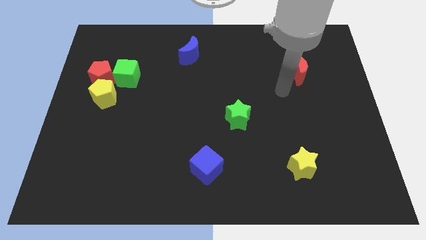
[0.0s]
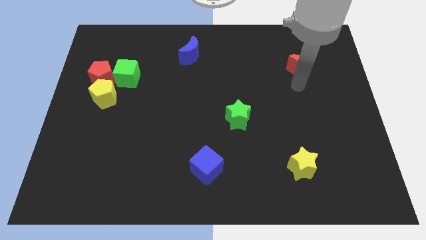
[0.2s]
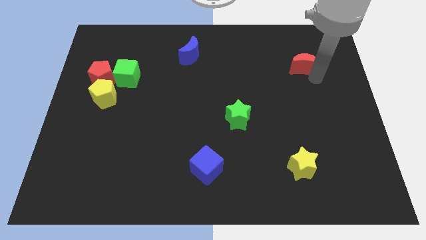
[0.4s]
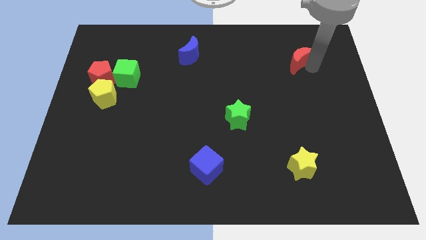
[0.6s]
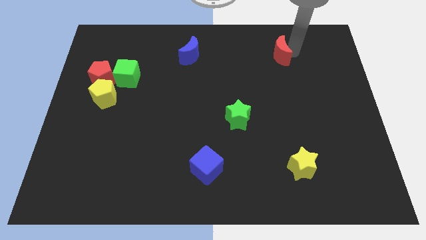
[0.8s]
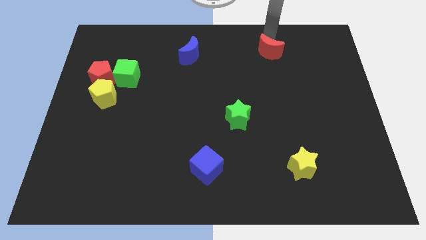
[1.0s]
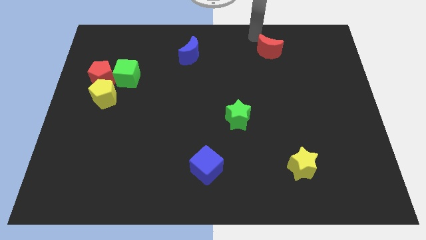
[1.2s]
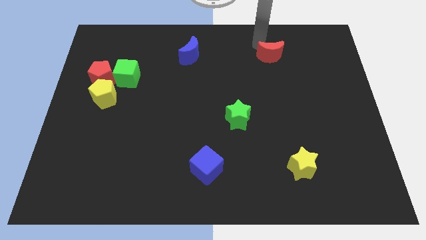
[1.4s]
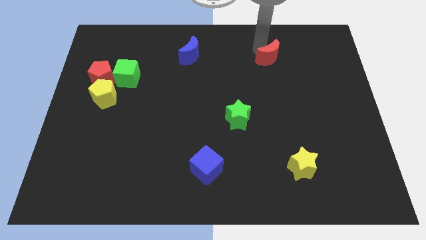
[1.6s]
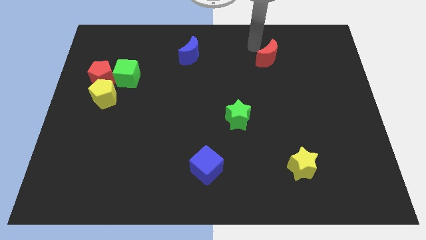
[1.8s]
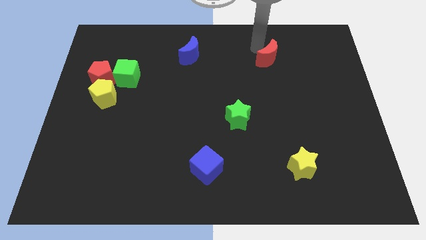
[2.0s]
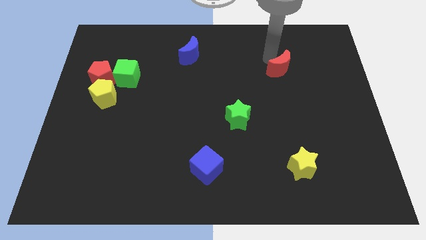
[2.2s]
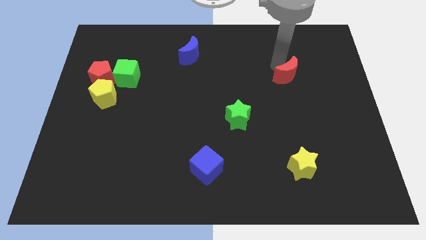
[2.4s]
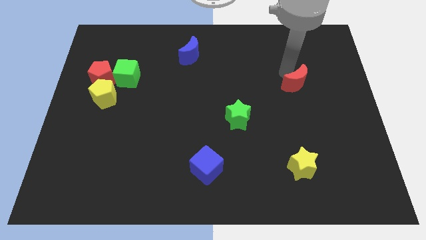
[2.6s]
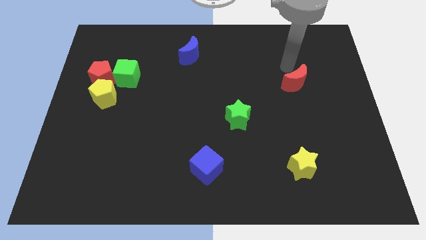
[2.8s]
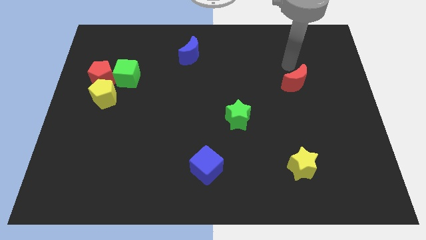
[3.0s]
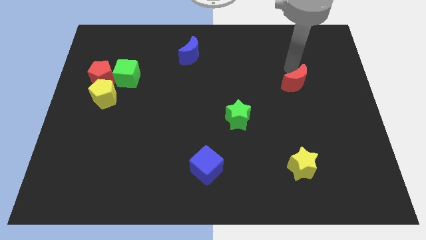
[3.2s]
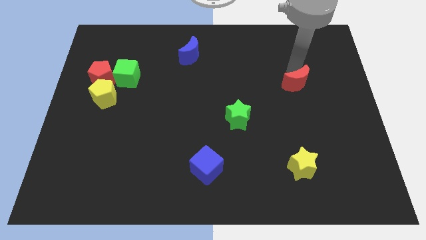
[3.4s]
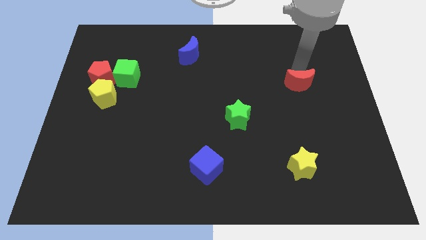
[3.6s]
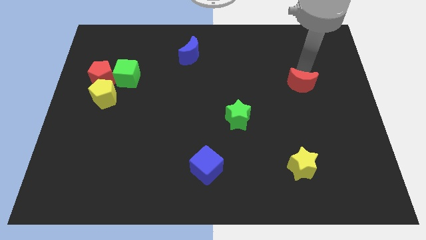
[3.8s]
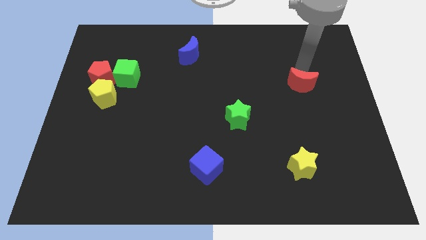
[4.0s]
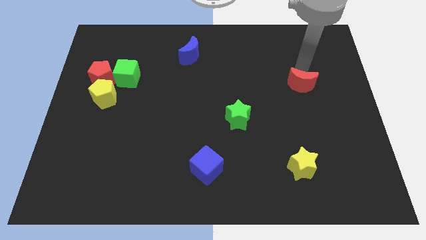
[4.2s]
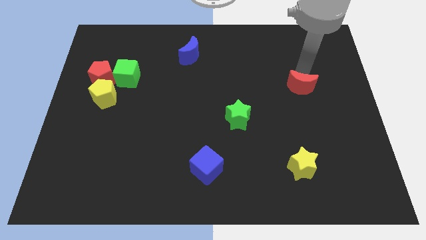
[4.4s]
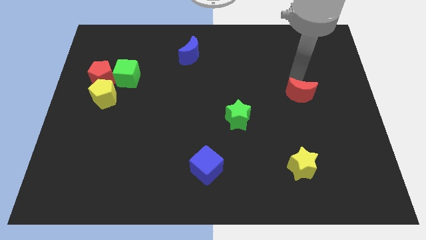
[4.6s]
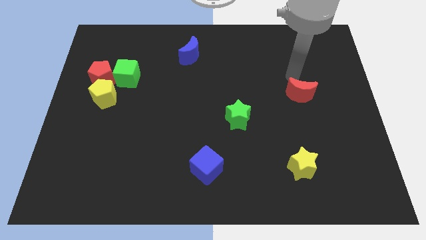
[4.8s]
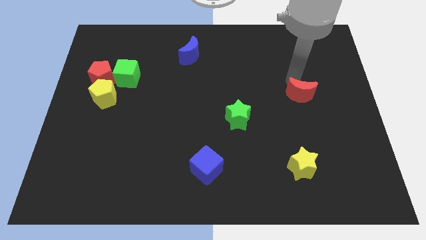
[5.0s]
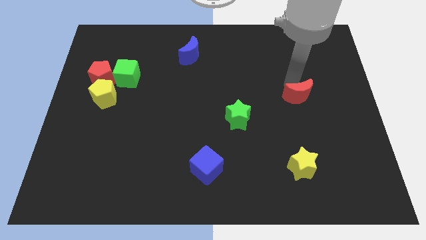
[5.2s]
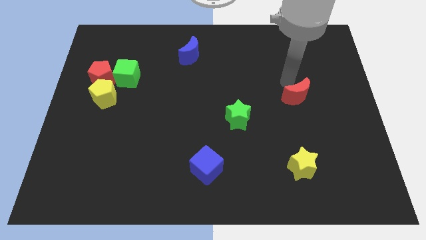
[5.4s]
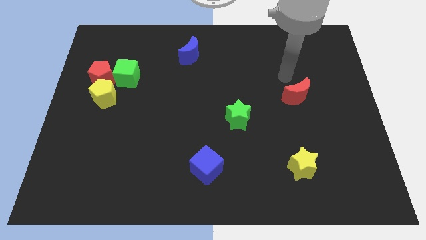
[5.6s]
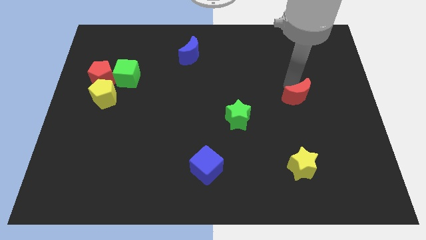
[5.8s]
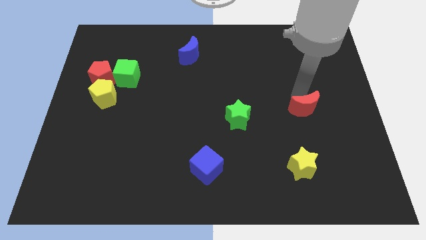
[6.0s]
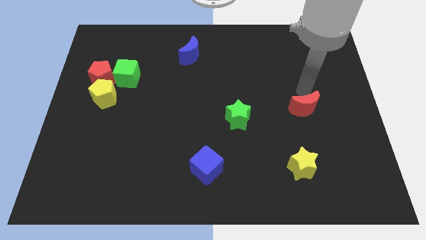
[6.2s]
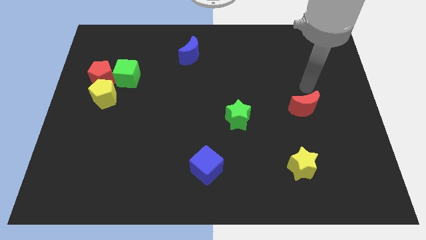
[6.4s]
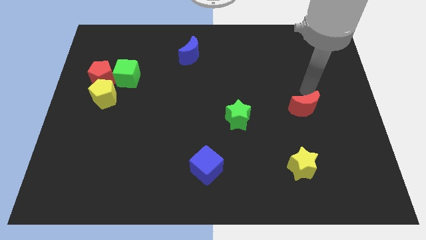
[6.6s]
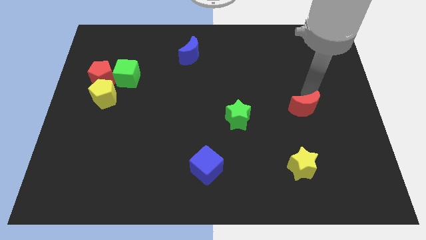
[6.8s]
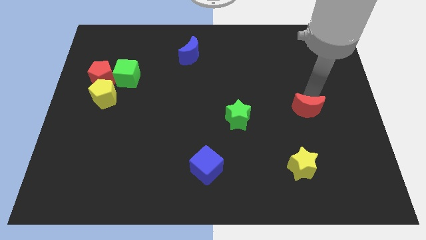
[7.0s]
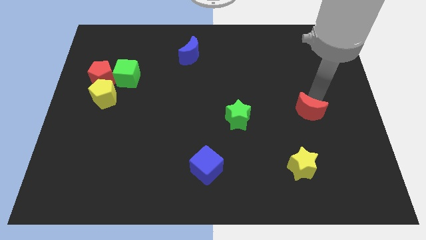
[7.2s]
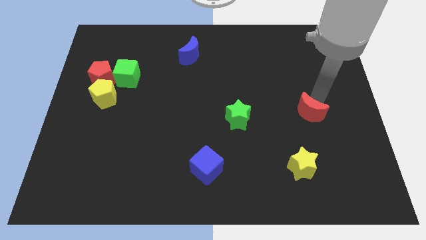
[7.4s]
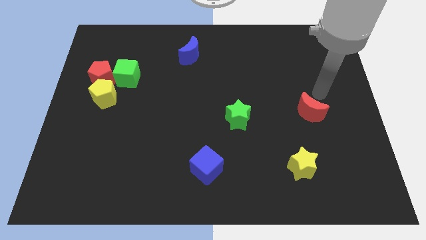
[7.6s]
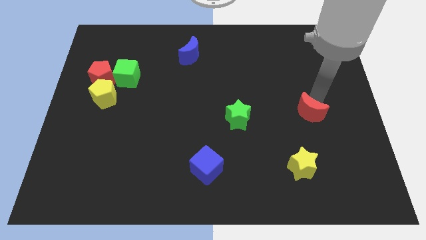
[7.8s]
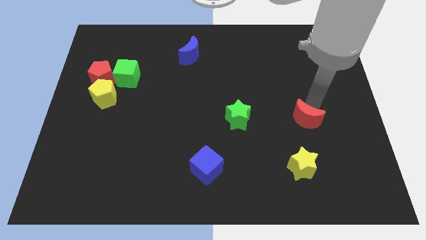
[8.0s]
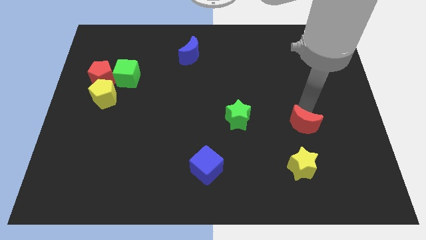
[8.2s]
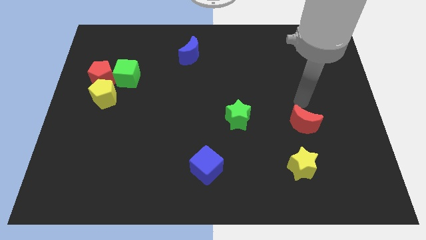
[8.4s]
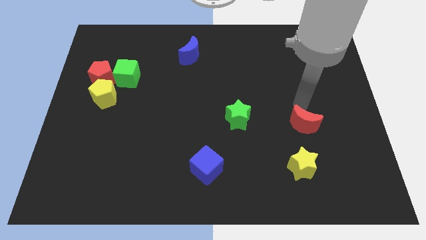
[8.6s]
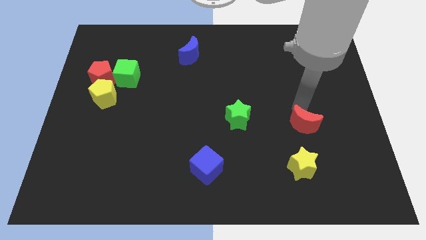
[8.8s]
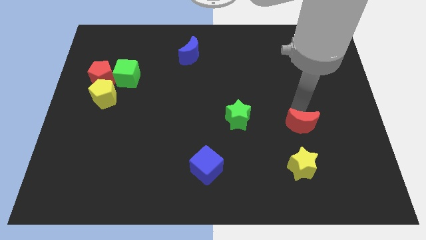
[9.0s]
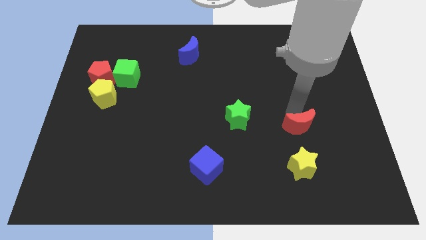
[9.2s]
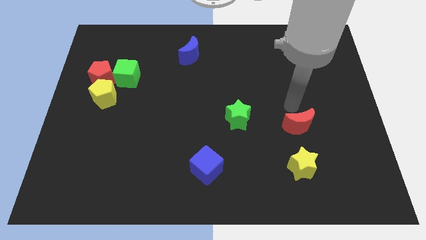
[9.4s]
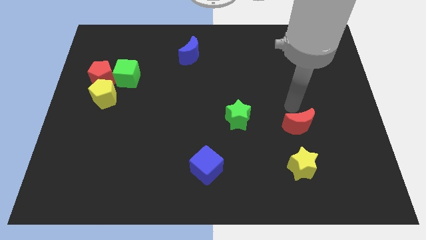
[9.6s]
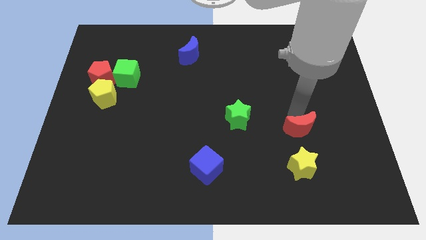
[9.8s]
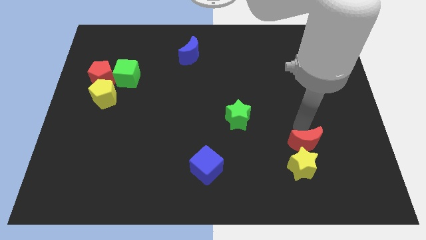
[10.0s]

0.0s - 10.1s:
push the red moon to the yellow star

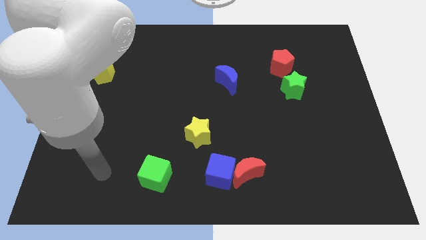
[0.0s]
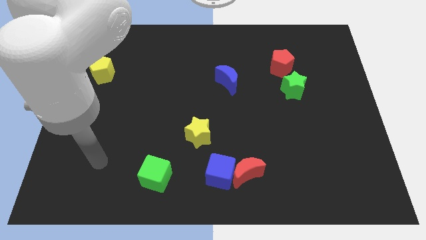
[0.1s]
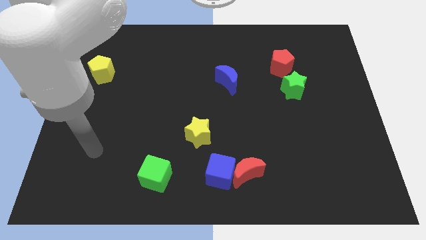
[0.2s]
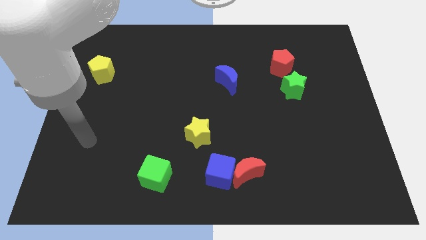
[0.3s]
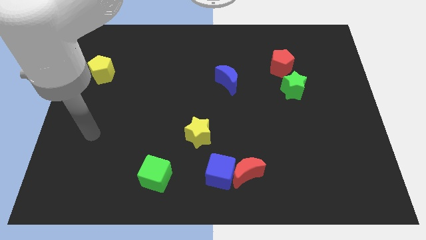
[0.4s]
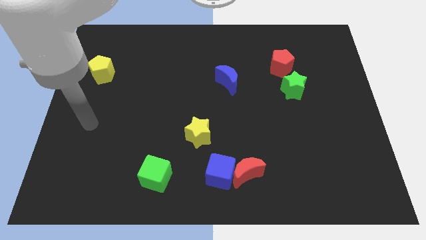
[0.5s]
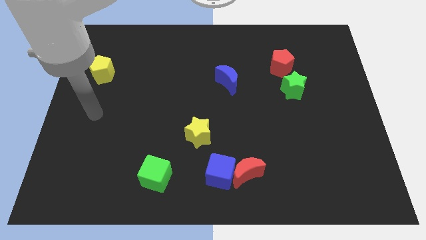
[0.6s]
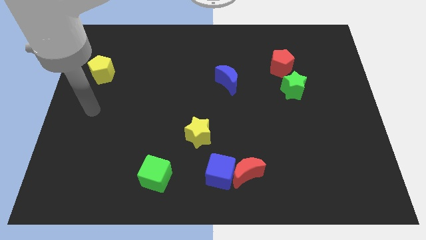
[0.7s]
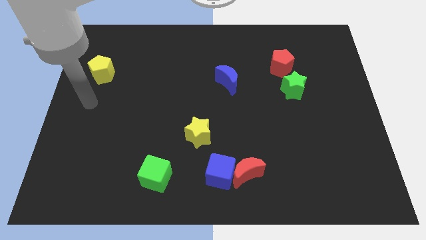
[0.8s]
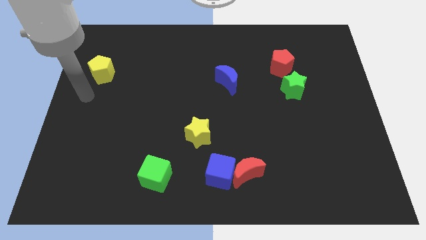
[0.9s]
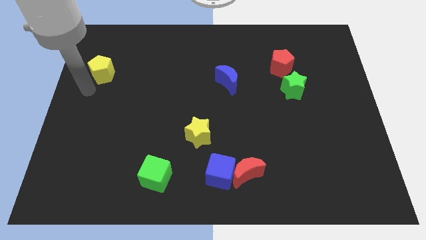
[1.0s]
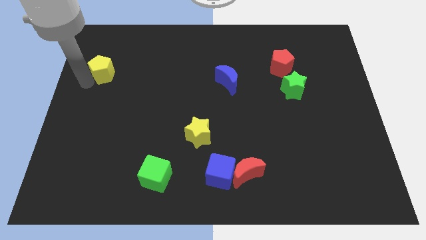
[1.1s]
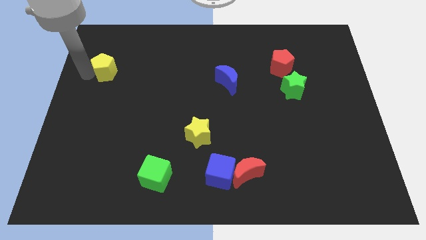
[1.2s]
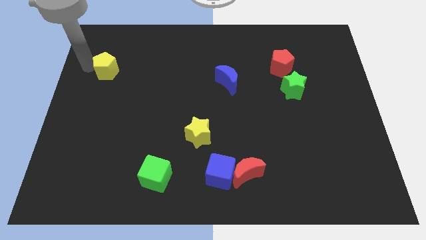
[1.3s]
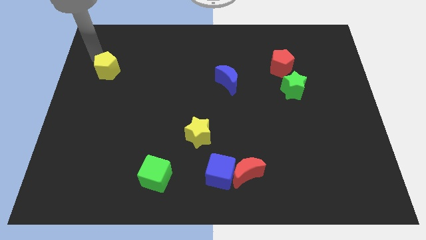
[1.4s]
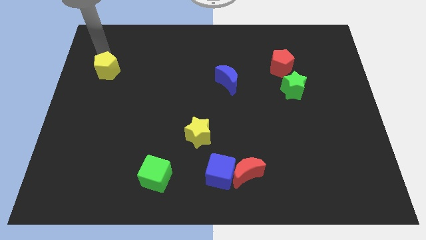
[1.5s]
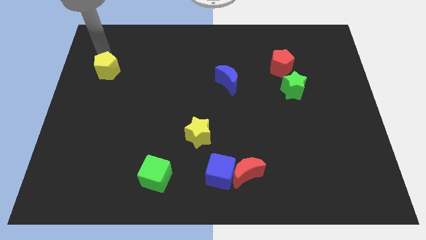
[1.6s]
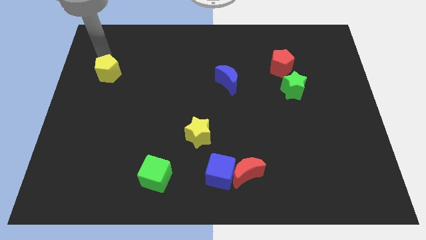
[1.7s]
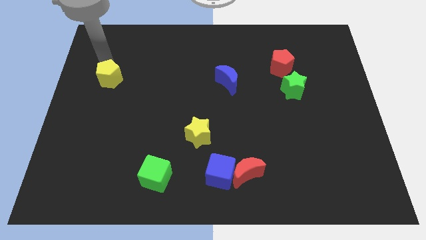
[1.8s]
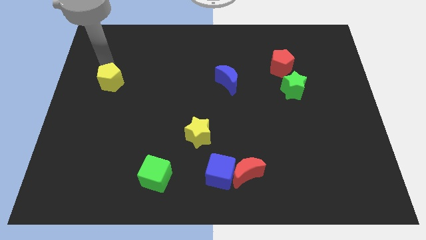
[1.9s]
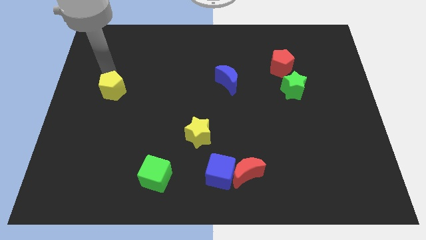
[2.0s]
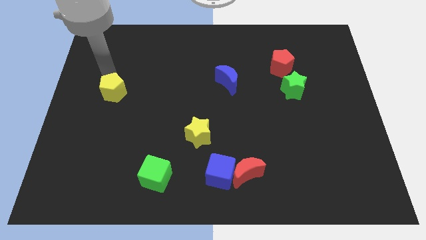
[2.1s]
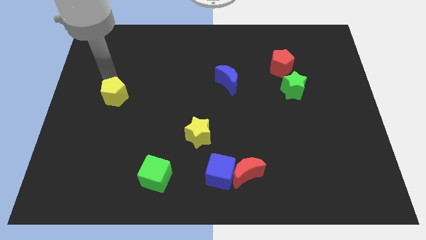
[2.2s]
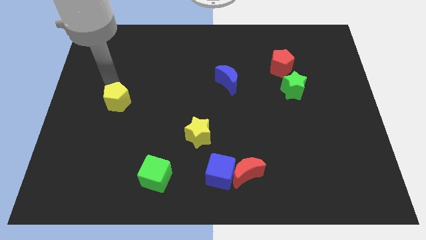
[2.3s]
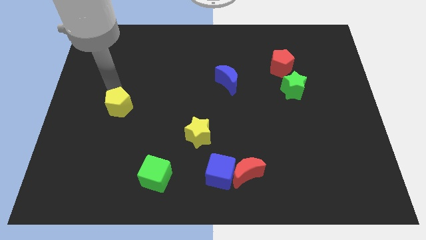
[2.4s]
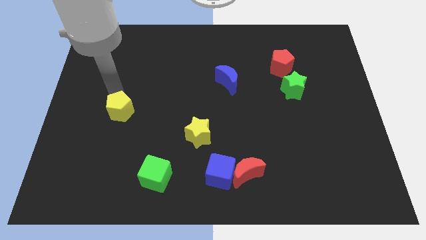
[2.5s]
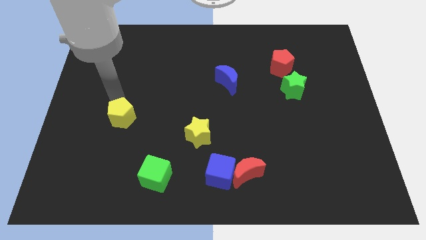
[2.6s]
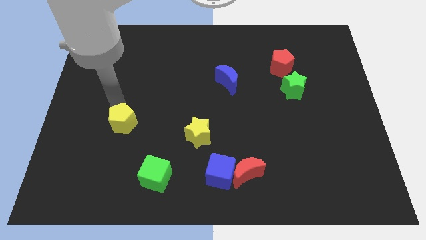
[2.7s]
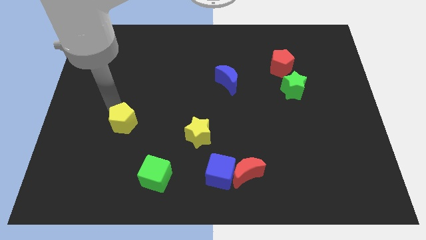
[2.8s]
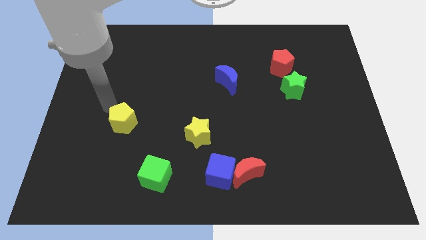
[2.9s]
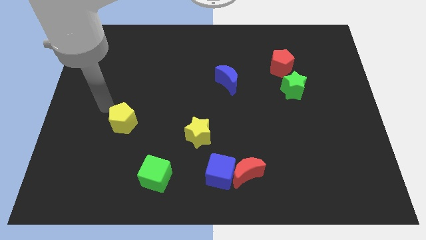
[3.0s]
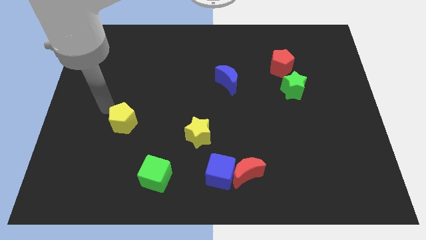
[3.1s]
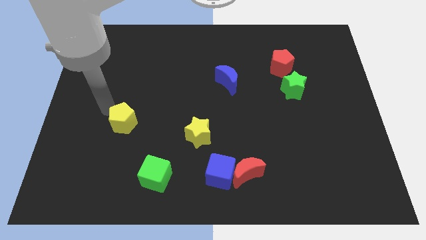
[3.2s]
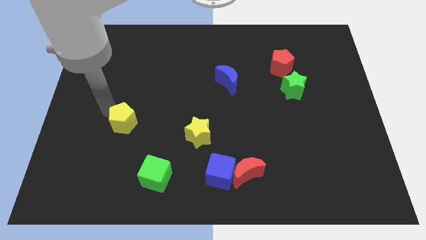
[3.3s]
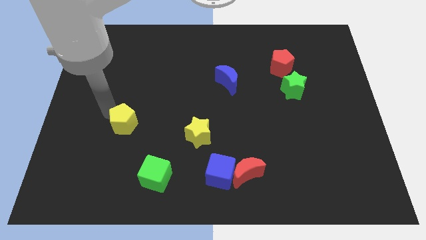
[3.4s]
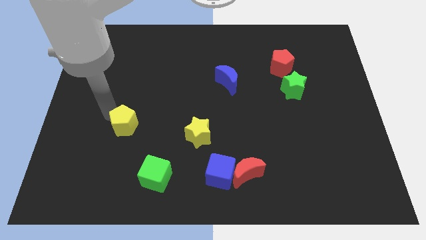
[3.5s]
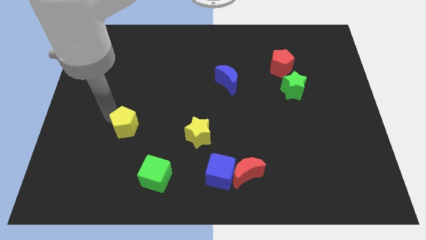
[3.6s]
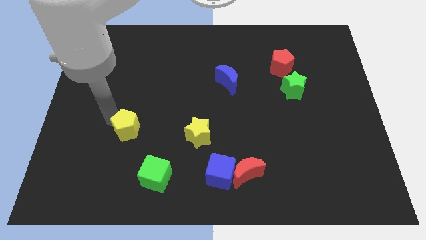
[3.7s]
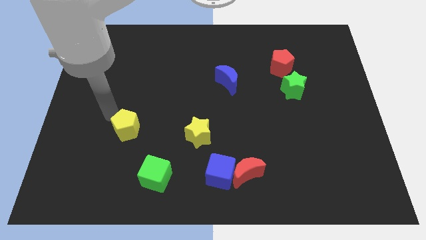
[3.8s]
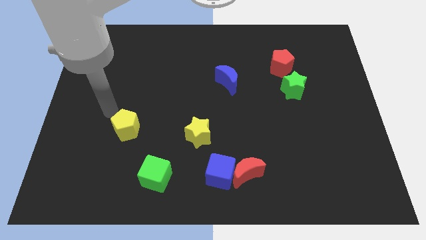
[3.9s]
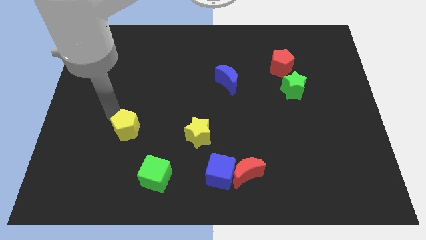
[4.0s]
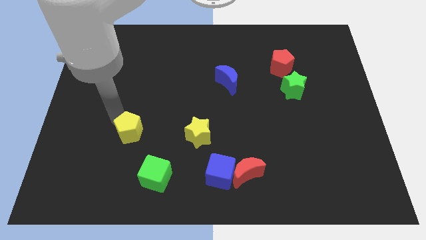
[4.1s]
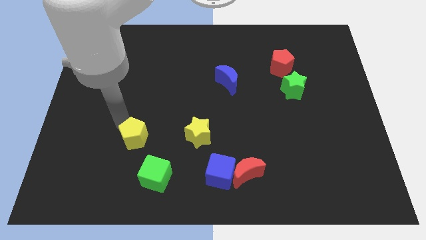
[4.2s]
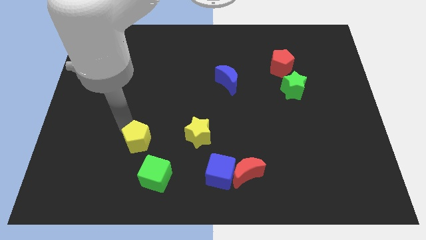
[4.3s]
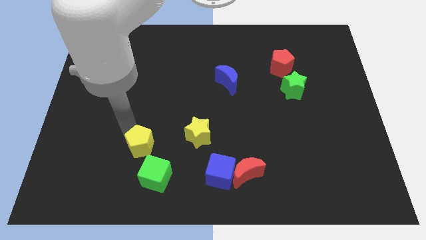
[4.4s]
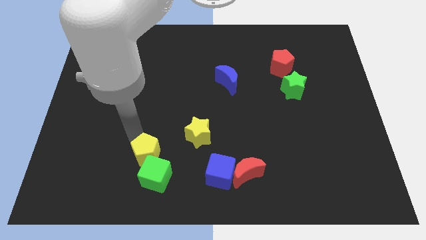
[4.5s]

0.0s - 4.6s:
put the yellow pentagon to the green cube
